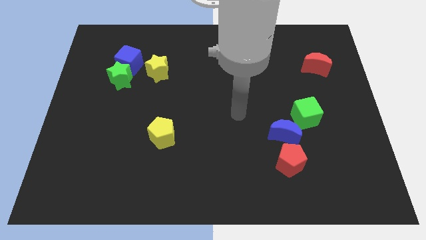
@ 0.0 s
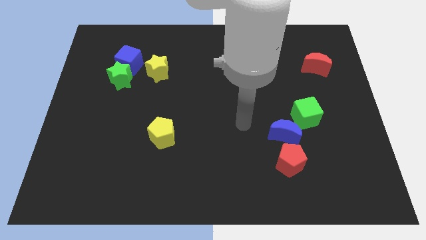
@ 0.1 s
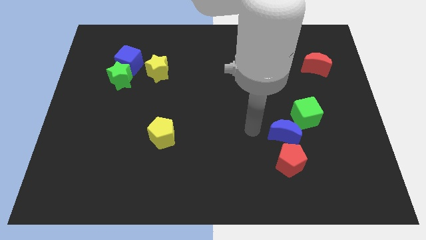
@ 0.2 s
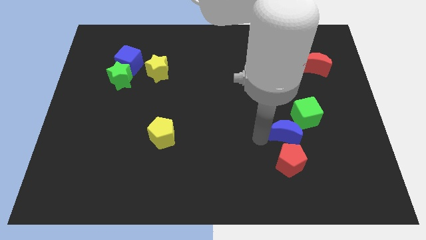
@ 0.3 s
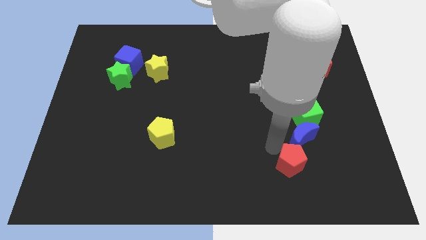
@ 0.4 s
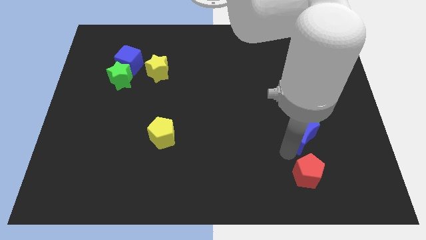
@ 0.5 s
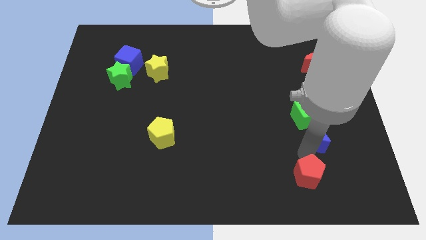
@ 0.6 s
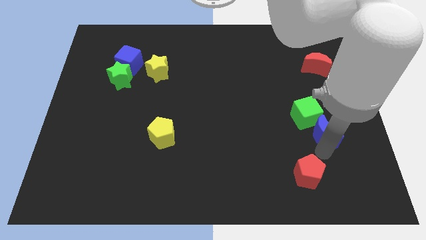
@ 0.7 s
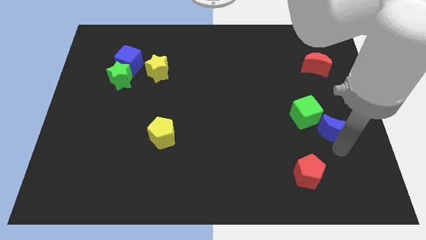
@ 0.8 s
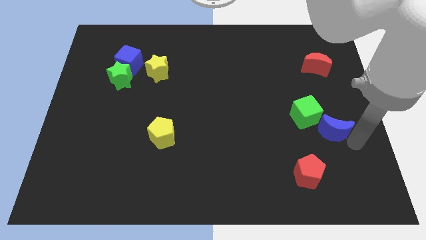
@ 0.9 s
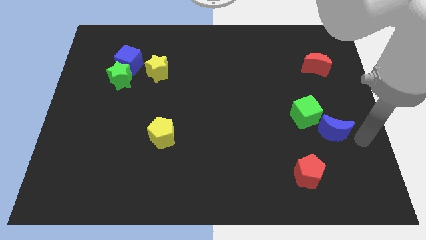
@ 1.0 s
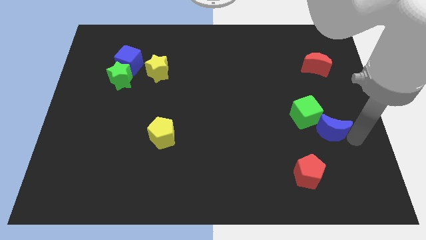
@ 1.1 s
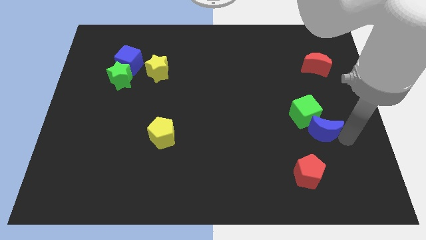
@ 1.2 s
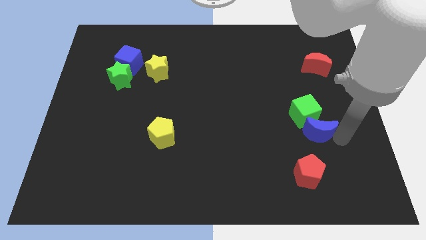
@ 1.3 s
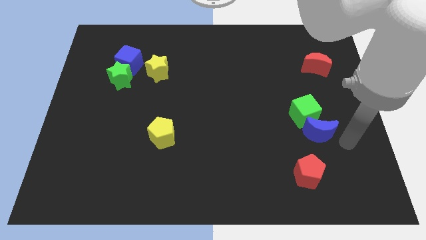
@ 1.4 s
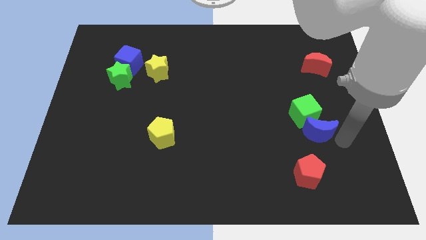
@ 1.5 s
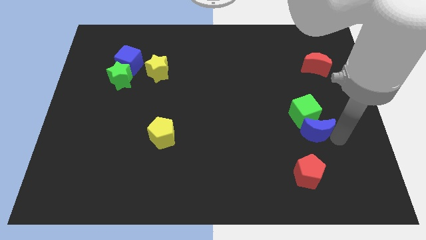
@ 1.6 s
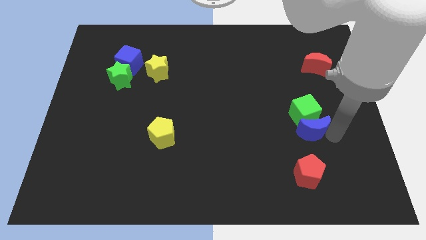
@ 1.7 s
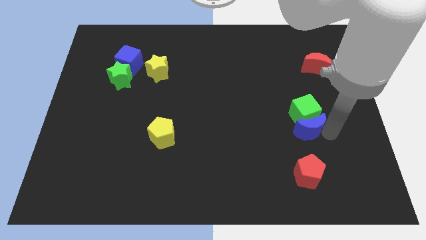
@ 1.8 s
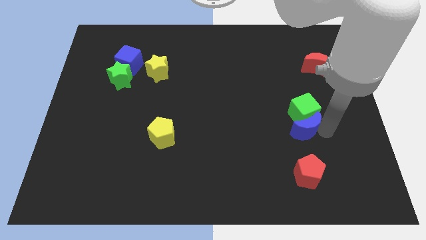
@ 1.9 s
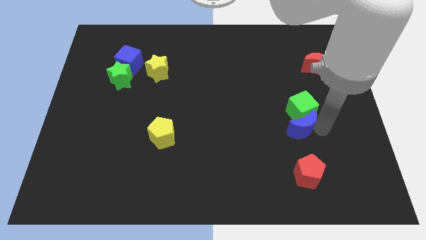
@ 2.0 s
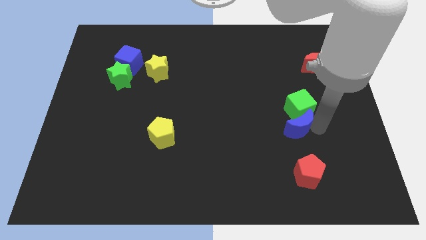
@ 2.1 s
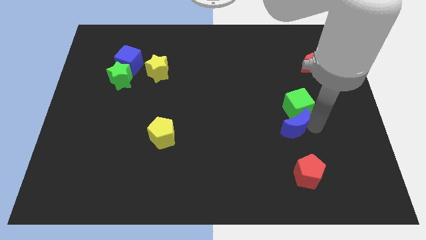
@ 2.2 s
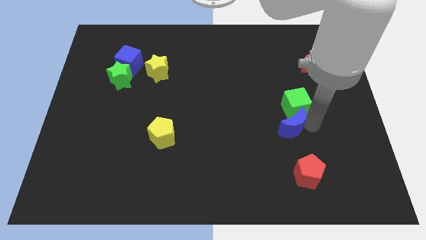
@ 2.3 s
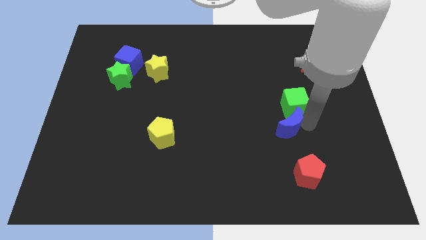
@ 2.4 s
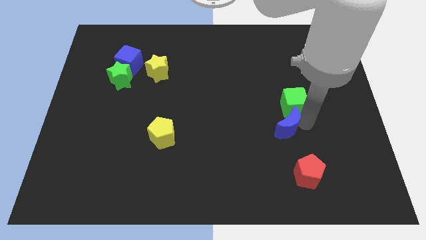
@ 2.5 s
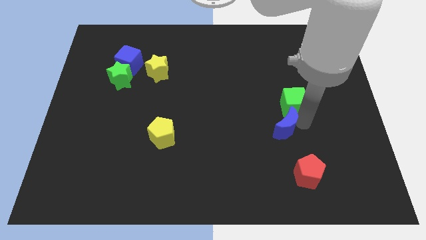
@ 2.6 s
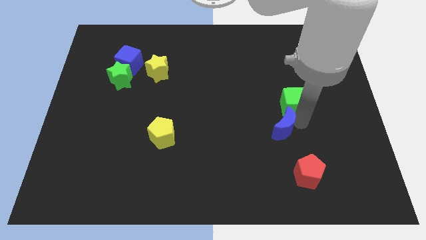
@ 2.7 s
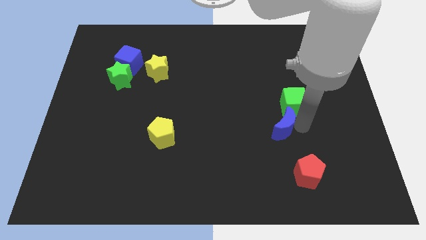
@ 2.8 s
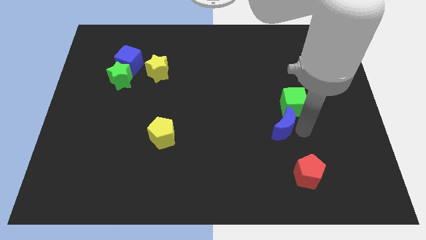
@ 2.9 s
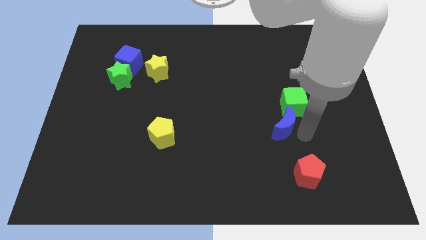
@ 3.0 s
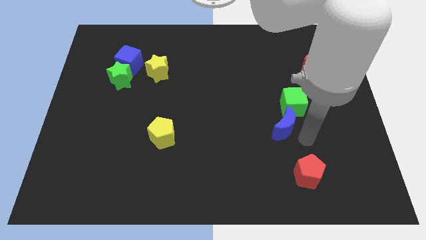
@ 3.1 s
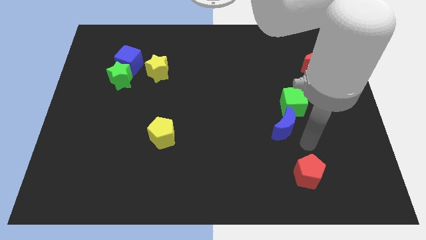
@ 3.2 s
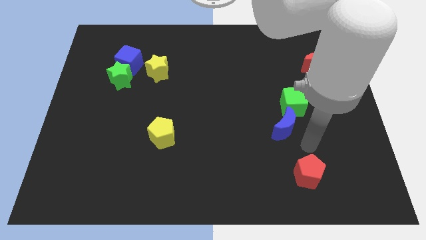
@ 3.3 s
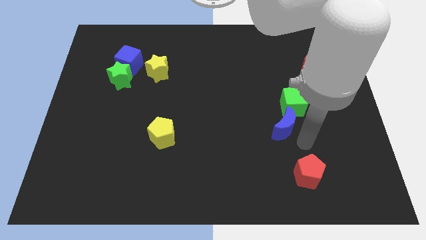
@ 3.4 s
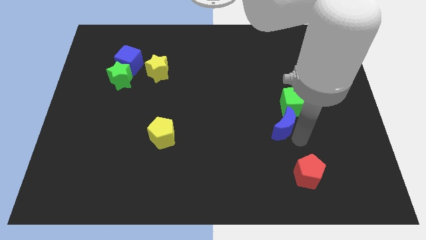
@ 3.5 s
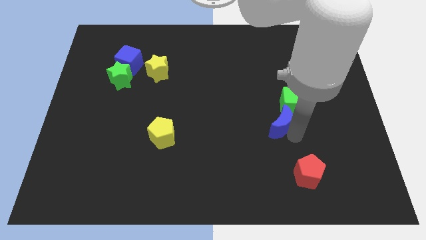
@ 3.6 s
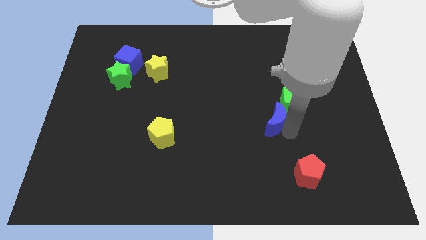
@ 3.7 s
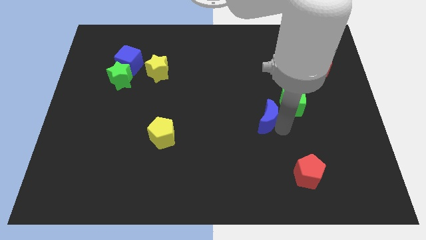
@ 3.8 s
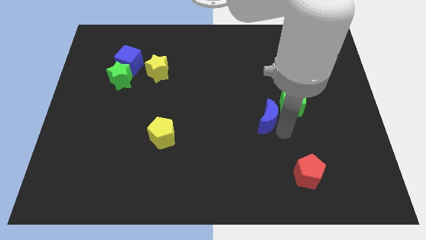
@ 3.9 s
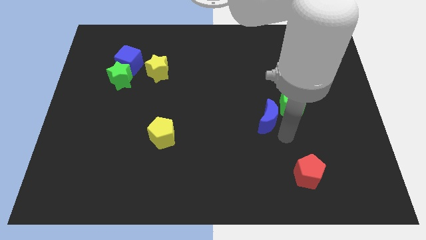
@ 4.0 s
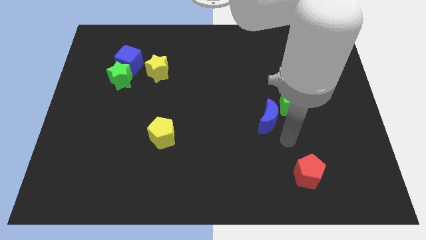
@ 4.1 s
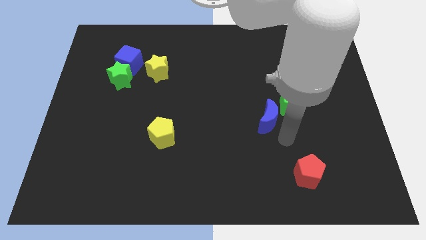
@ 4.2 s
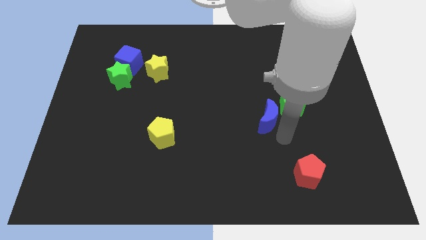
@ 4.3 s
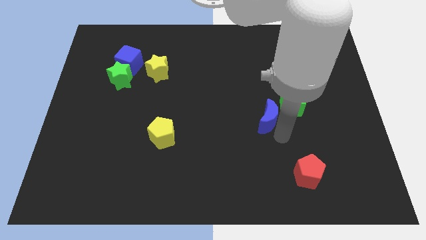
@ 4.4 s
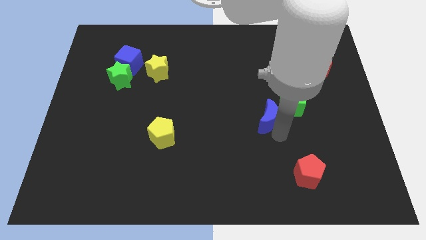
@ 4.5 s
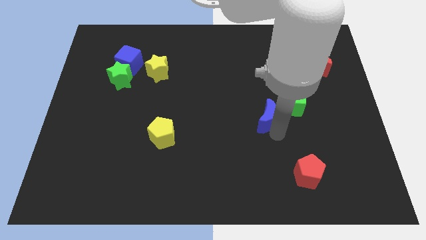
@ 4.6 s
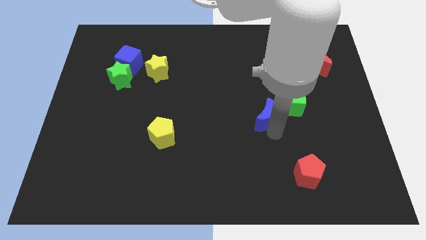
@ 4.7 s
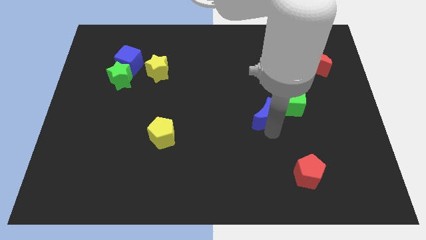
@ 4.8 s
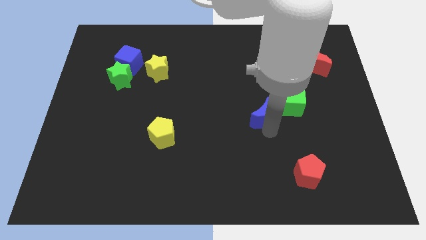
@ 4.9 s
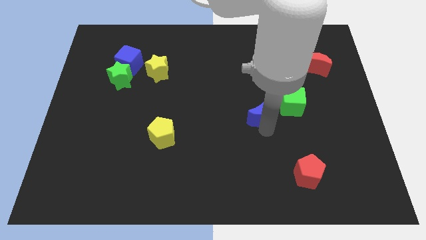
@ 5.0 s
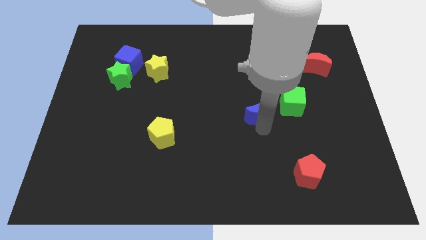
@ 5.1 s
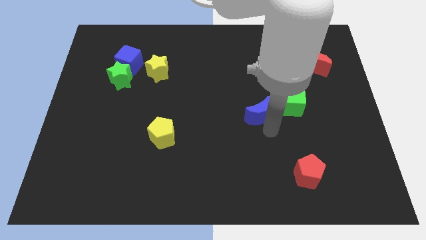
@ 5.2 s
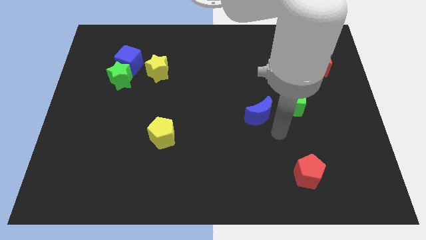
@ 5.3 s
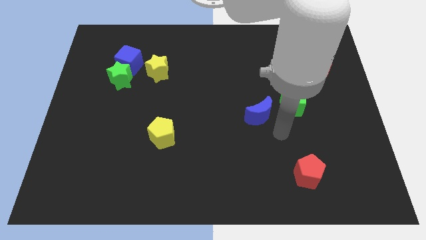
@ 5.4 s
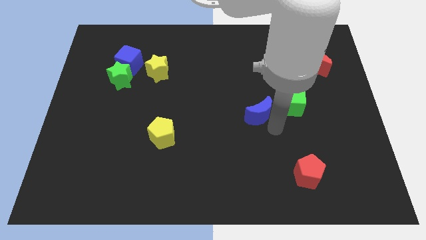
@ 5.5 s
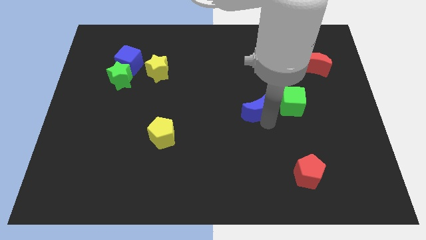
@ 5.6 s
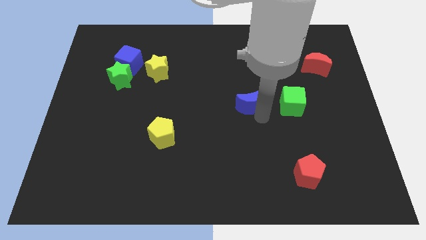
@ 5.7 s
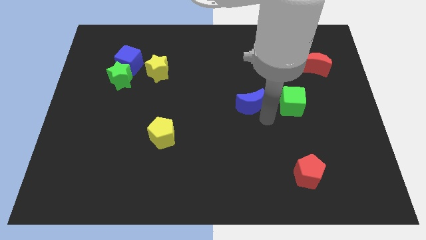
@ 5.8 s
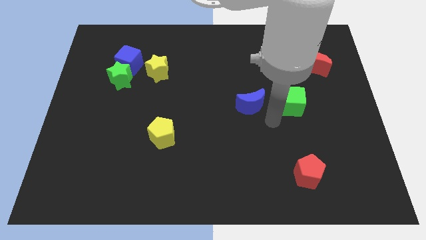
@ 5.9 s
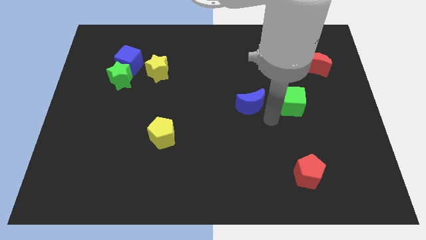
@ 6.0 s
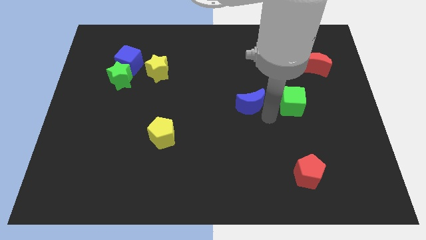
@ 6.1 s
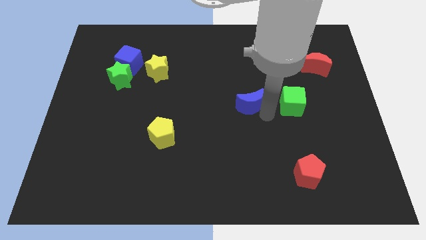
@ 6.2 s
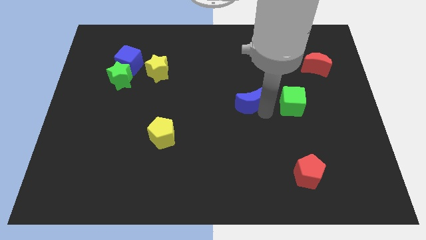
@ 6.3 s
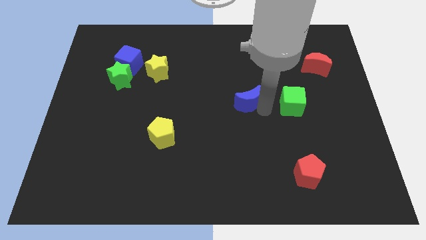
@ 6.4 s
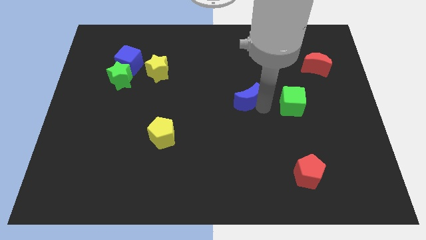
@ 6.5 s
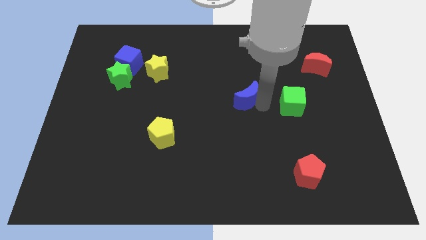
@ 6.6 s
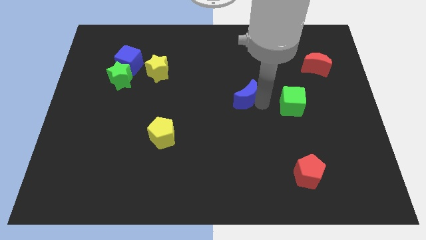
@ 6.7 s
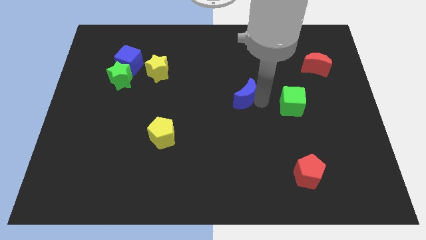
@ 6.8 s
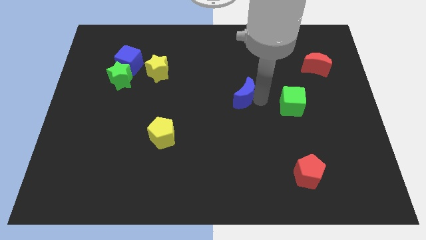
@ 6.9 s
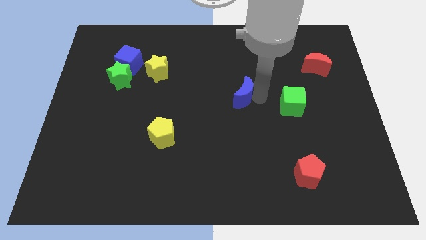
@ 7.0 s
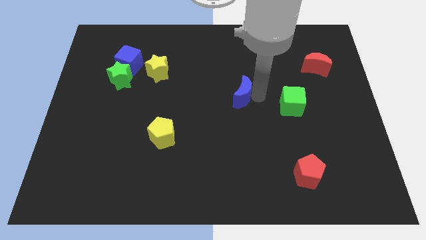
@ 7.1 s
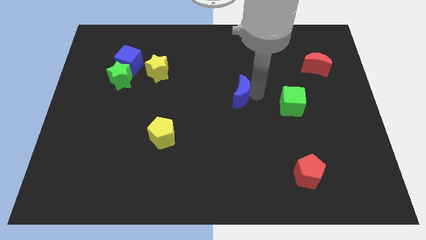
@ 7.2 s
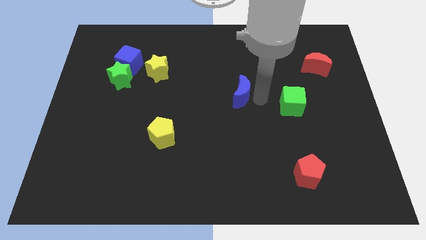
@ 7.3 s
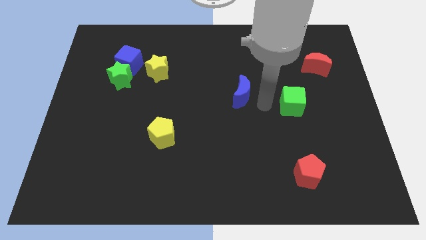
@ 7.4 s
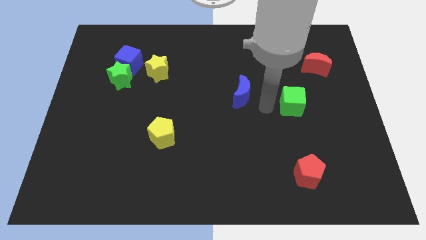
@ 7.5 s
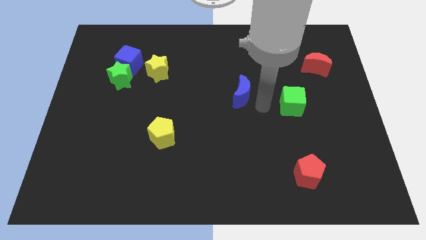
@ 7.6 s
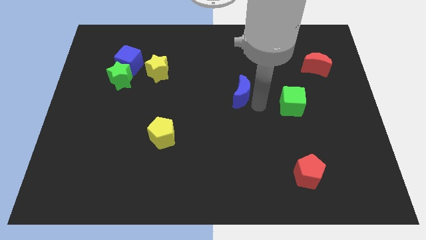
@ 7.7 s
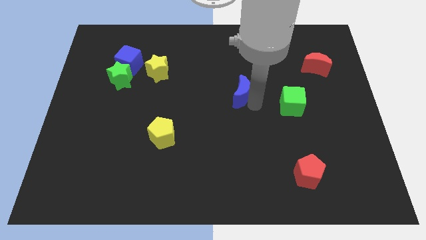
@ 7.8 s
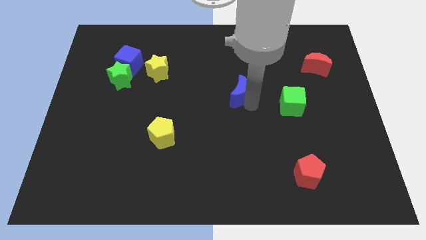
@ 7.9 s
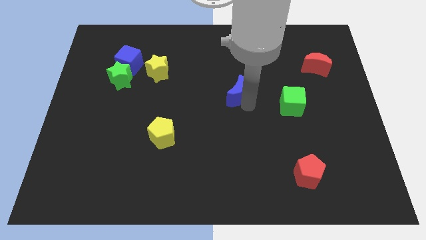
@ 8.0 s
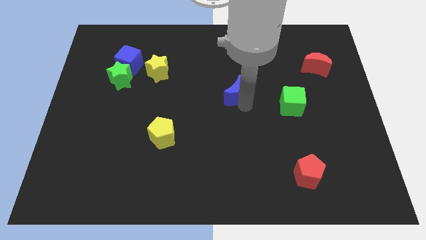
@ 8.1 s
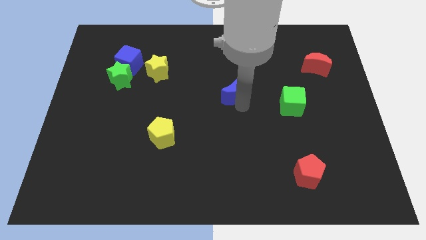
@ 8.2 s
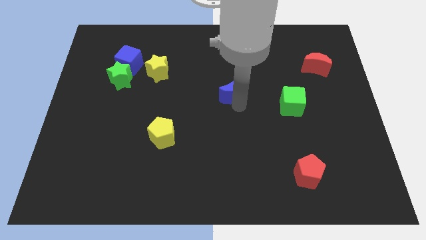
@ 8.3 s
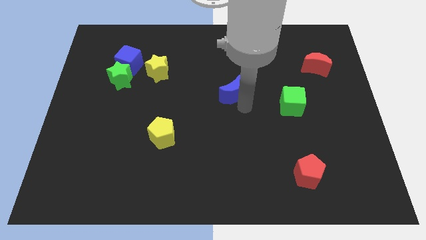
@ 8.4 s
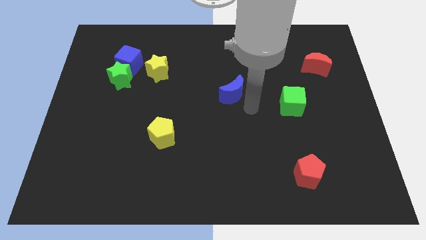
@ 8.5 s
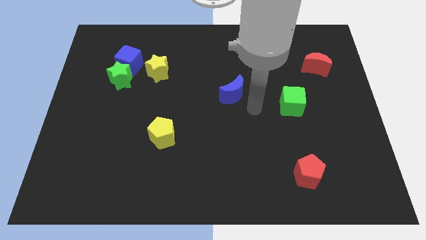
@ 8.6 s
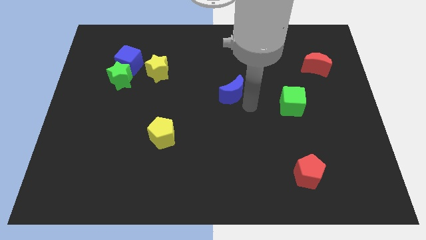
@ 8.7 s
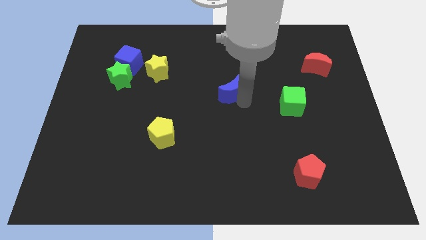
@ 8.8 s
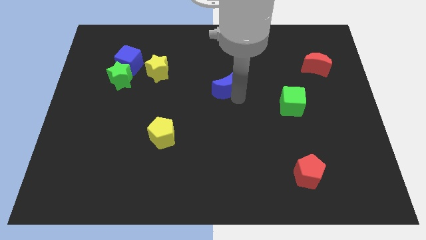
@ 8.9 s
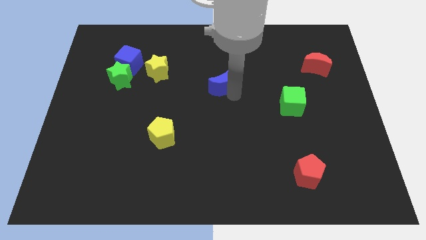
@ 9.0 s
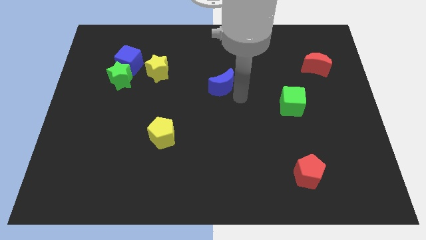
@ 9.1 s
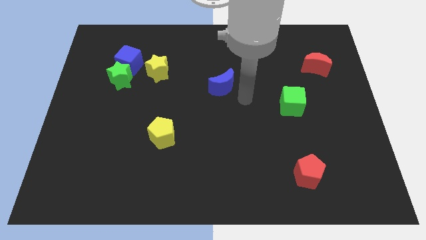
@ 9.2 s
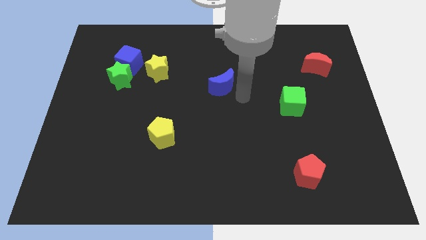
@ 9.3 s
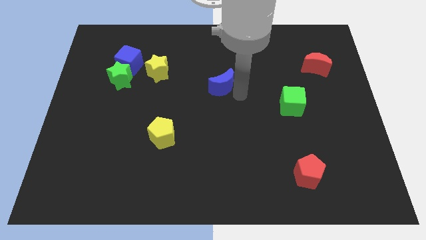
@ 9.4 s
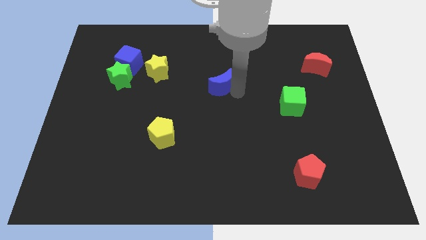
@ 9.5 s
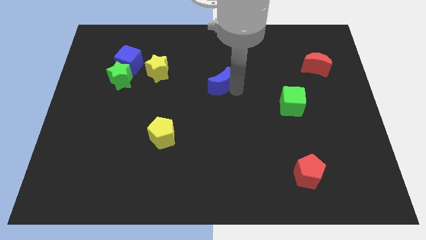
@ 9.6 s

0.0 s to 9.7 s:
slide the blue moon up and left
